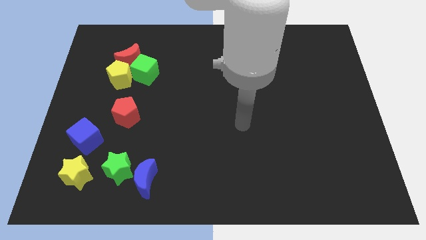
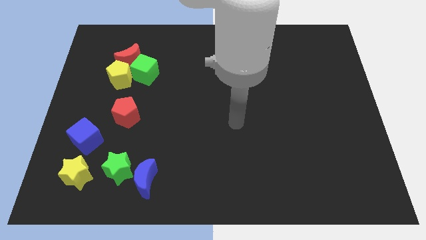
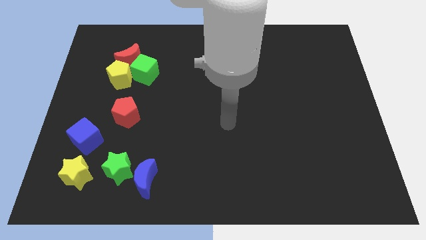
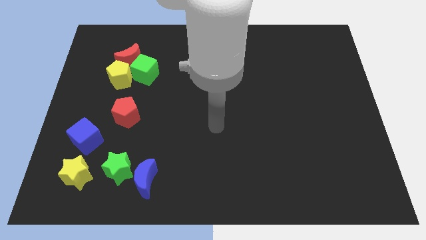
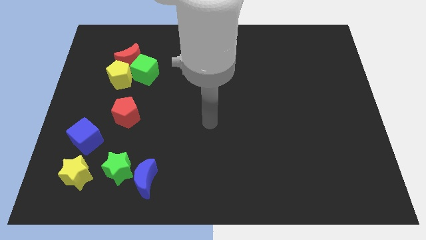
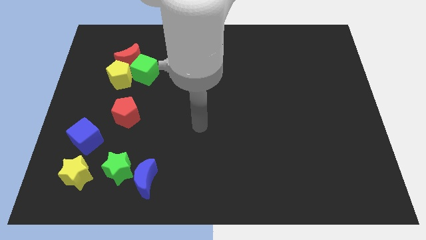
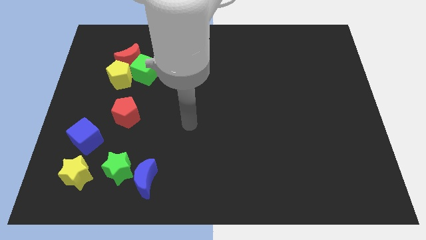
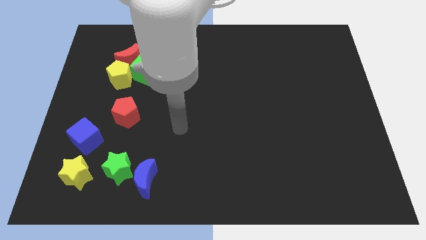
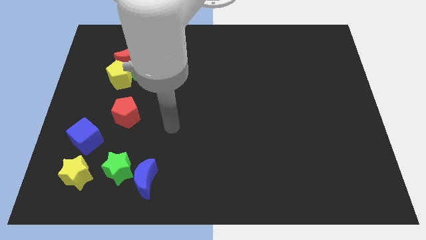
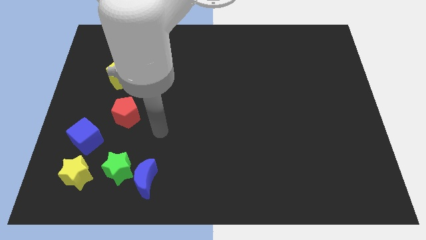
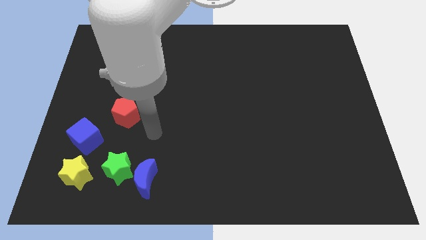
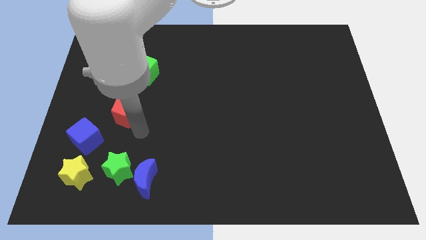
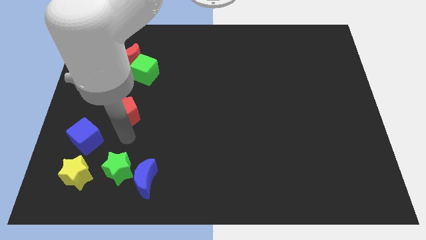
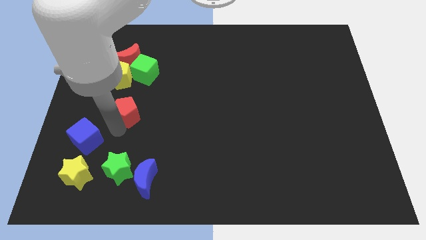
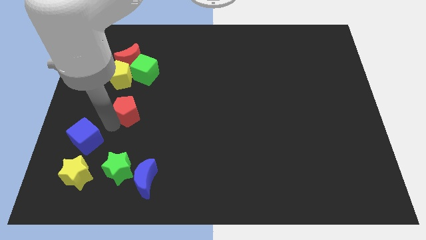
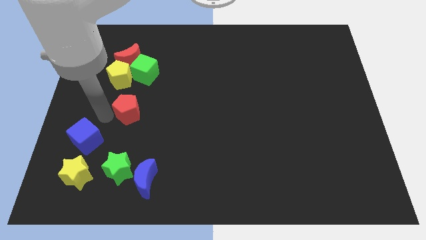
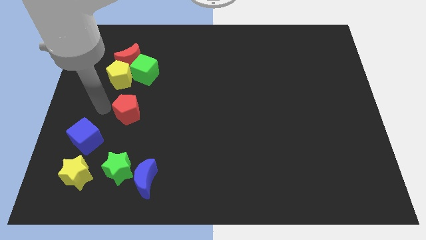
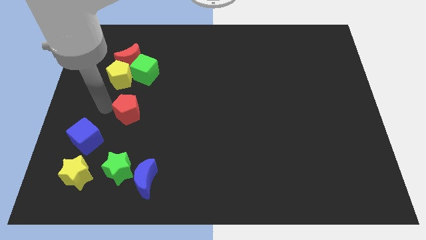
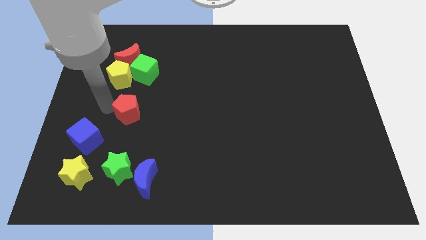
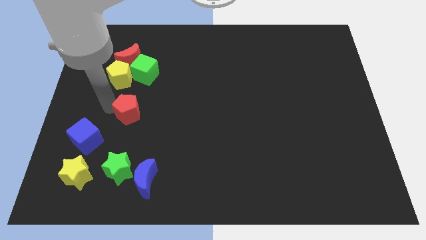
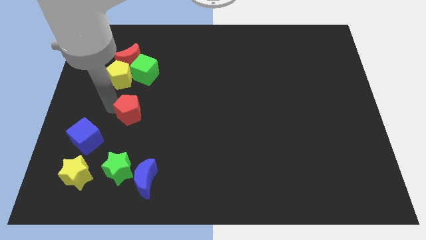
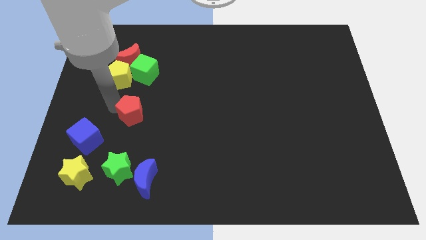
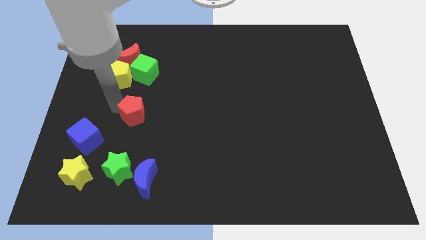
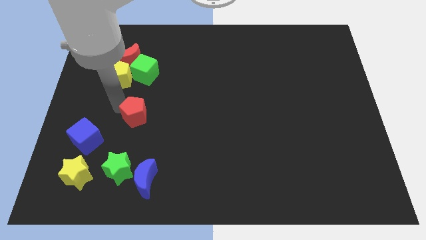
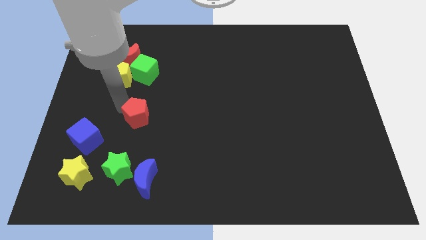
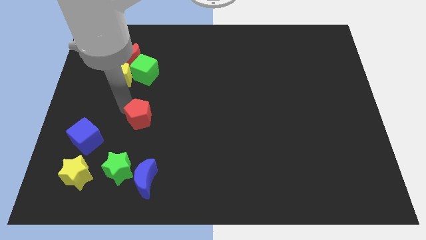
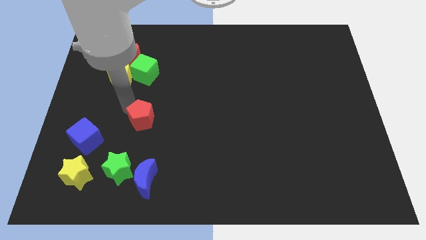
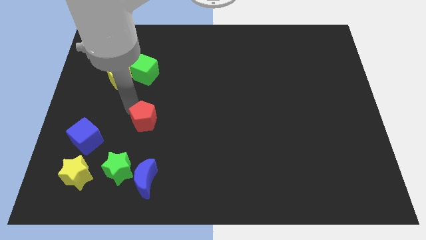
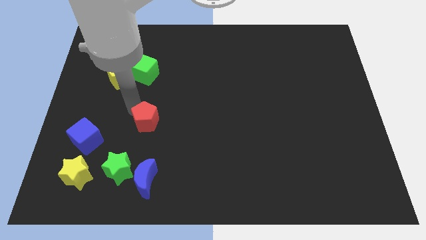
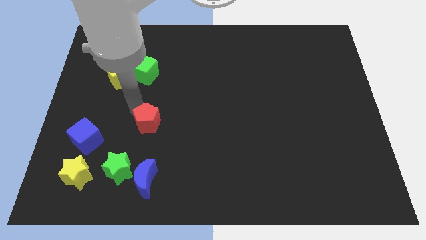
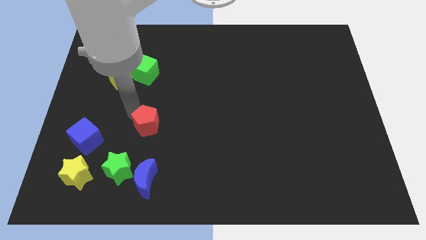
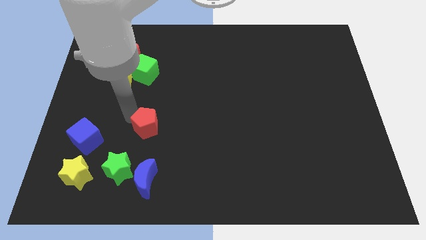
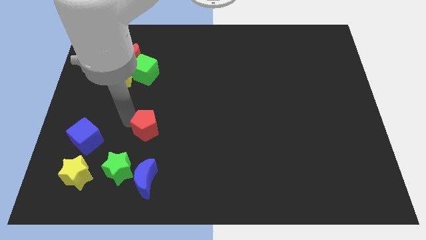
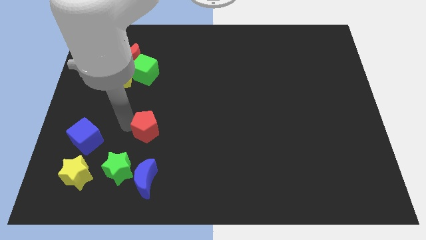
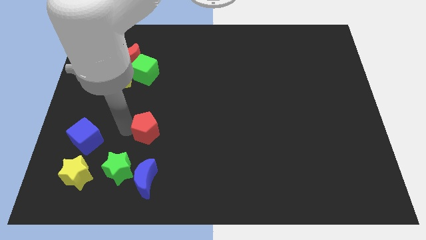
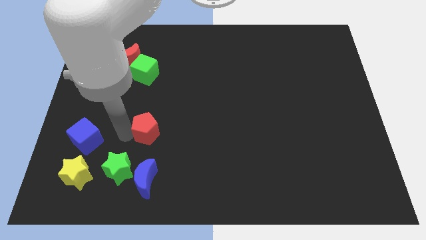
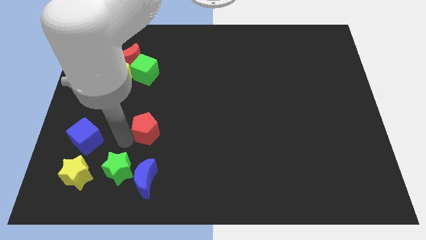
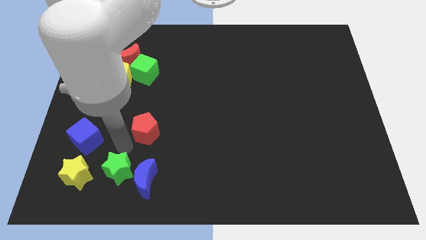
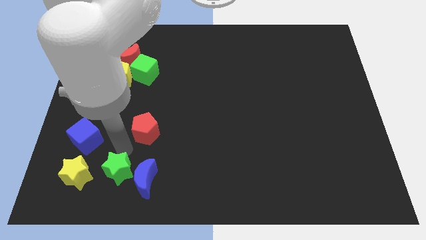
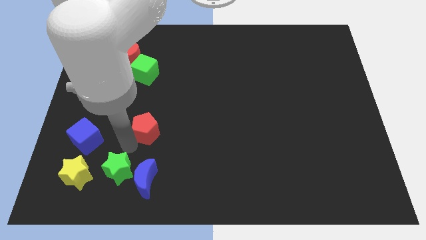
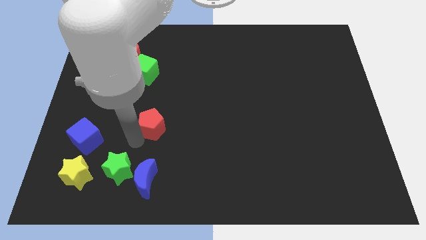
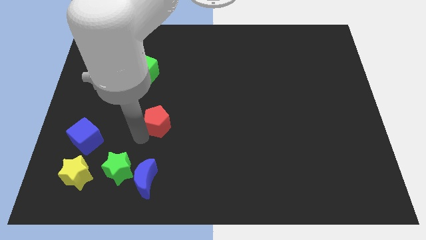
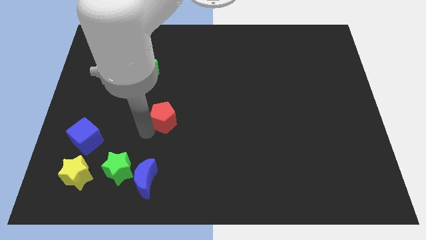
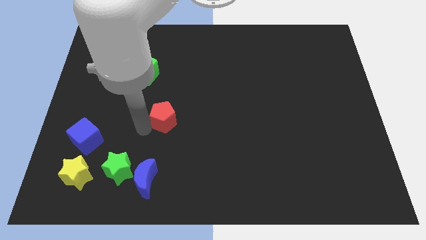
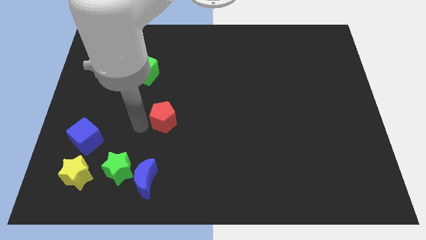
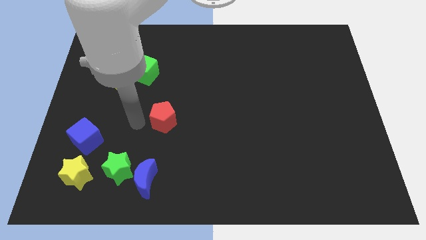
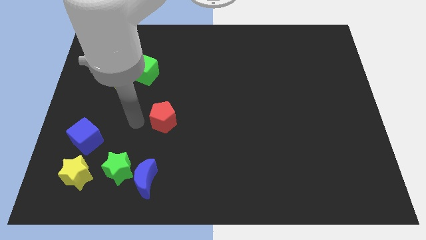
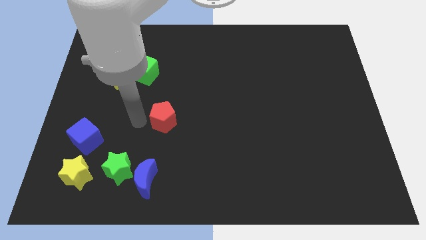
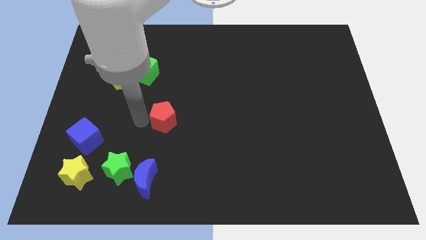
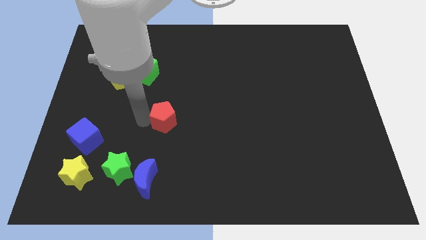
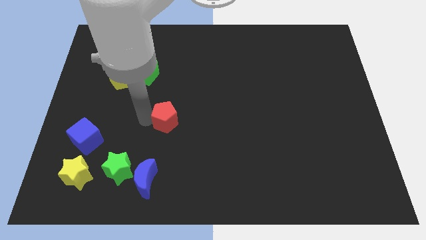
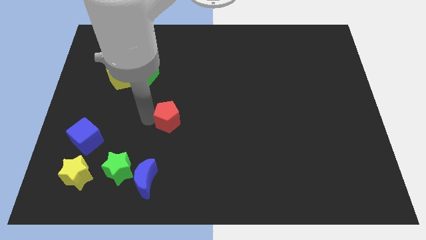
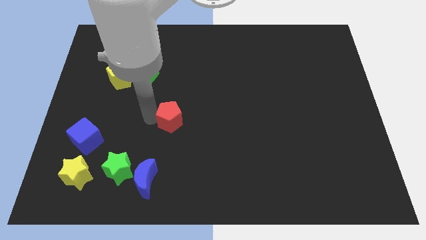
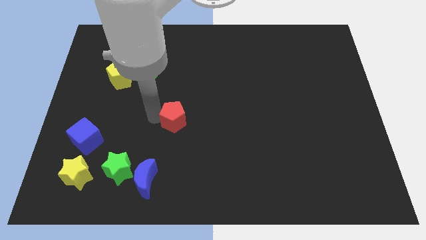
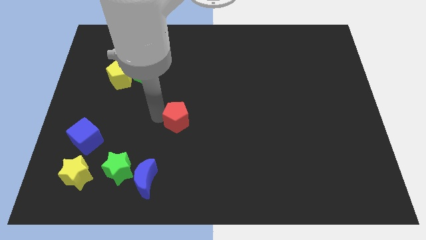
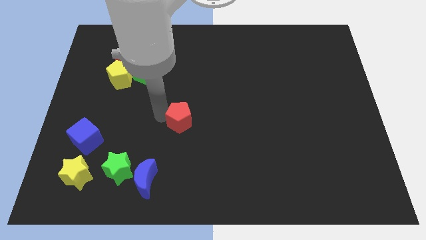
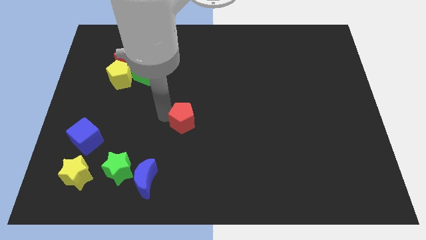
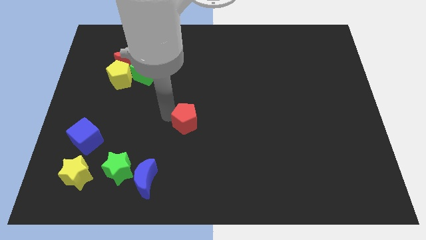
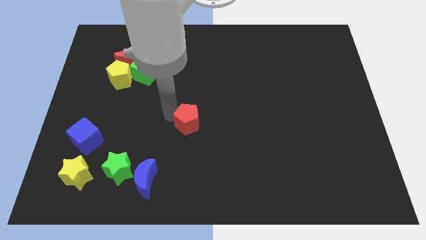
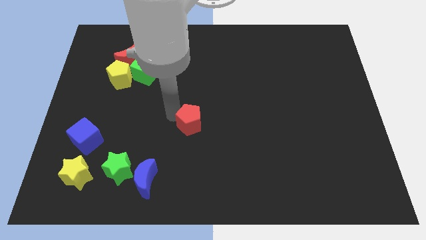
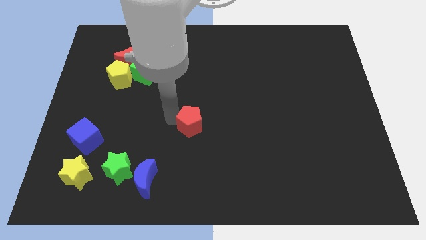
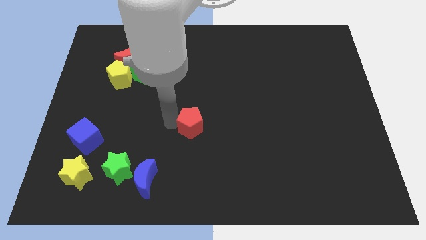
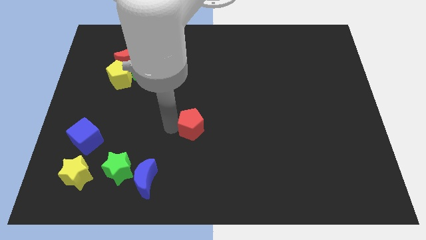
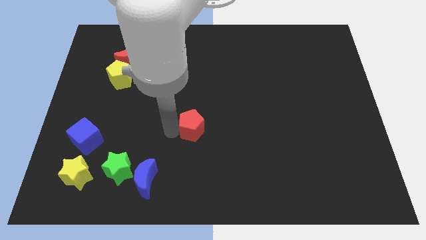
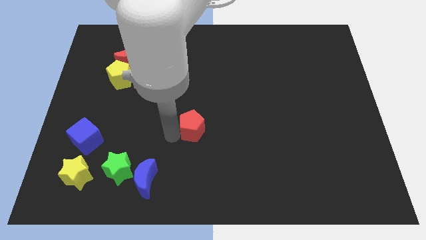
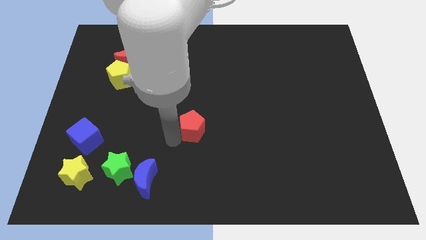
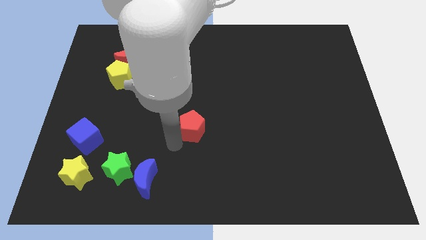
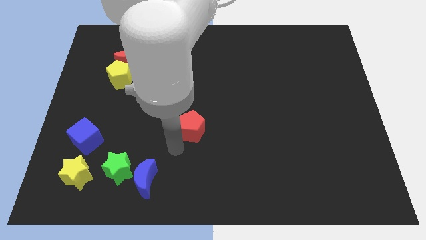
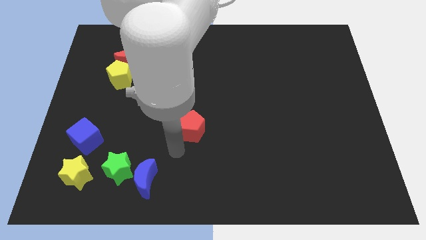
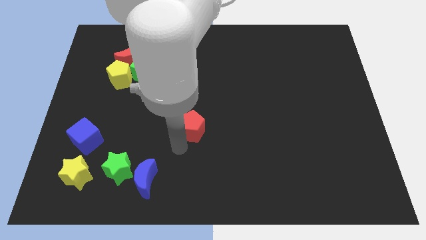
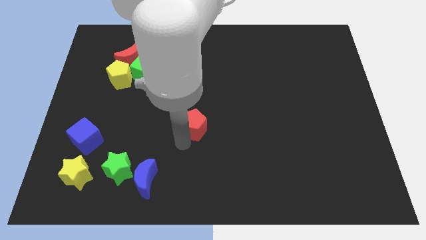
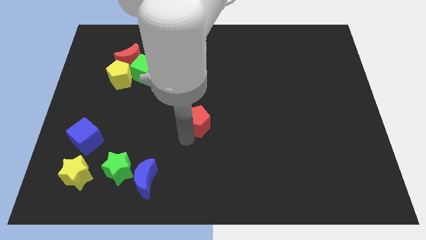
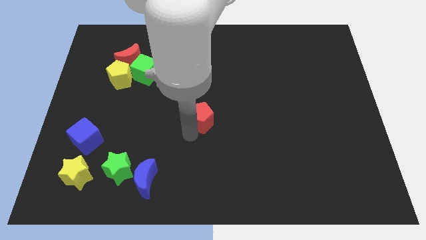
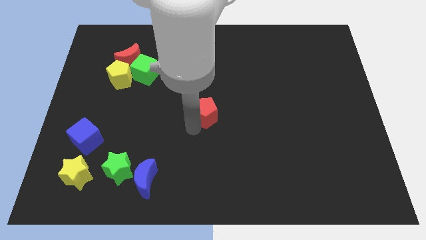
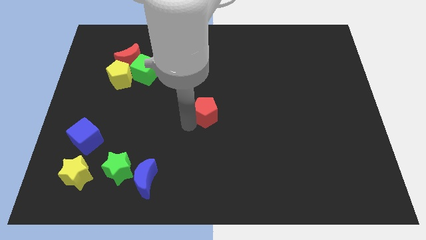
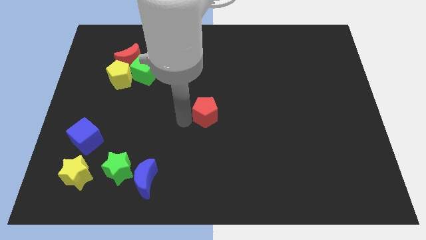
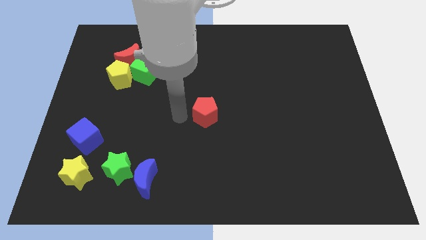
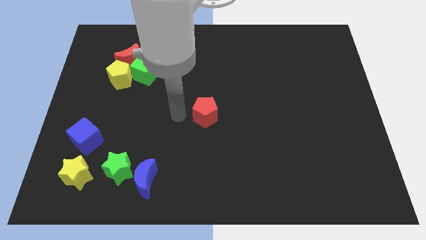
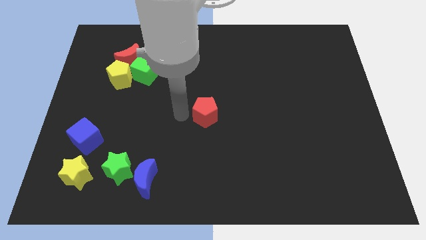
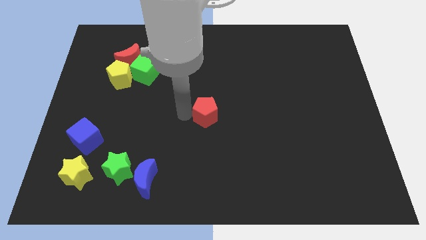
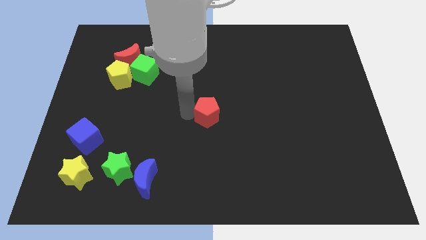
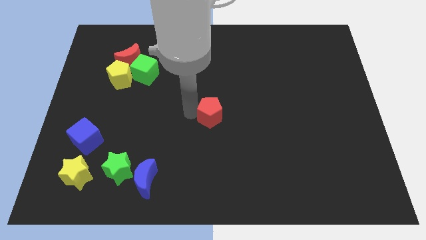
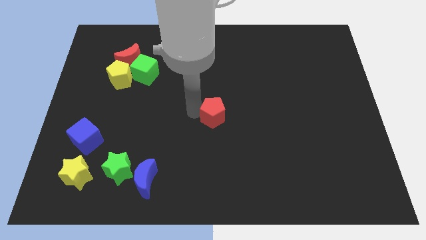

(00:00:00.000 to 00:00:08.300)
slide the red pentagon right
